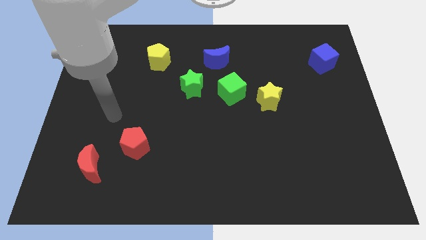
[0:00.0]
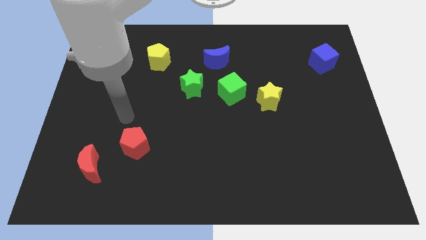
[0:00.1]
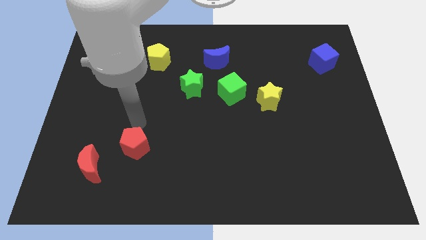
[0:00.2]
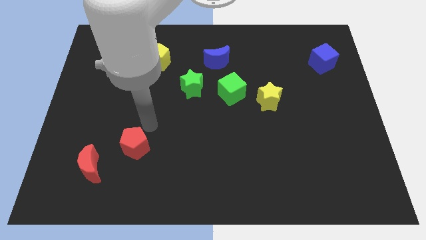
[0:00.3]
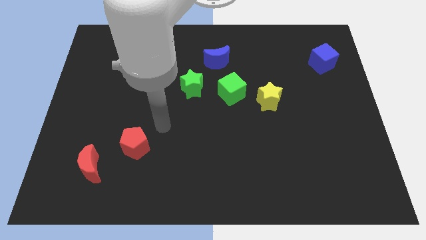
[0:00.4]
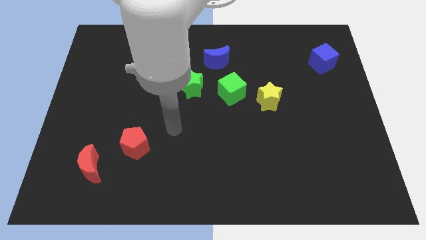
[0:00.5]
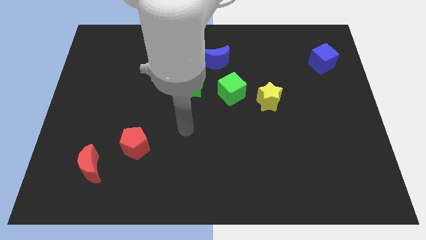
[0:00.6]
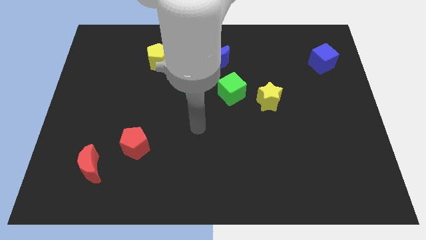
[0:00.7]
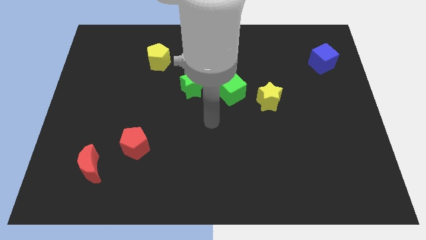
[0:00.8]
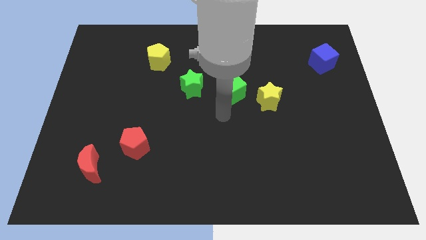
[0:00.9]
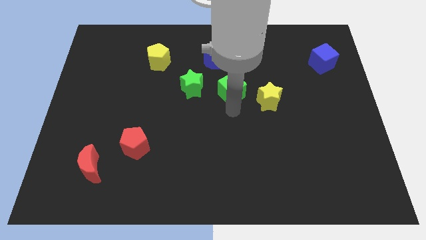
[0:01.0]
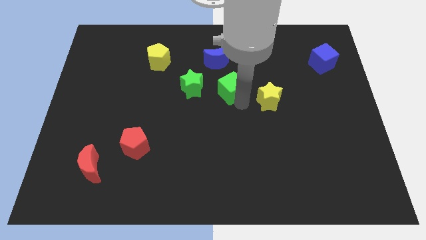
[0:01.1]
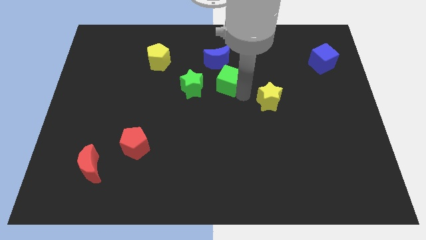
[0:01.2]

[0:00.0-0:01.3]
pull the yellow star apart from the green cube

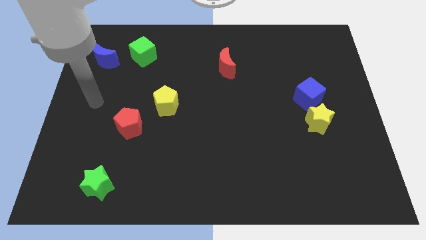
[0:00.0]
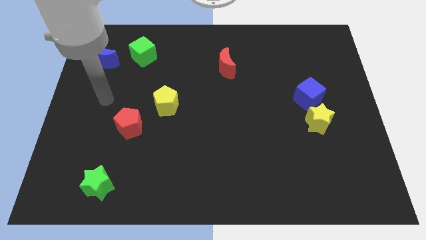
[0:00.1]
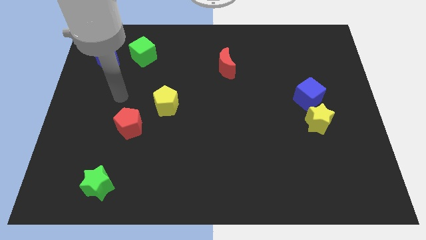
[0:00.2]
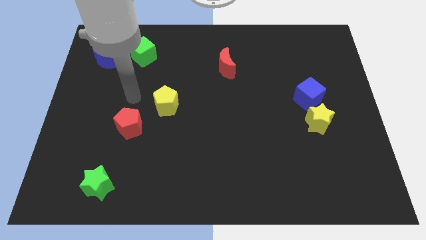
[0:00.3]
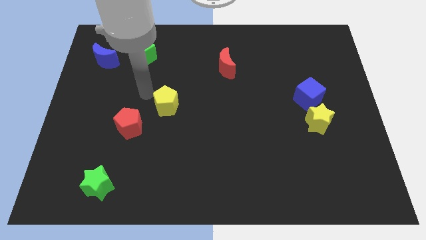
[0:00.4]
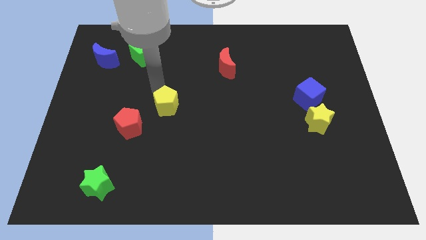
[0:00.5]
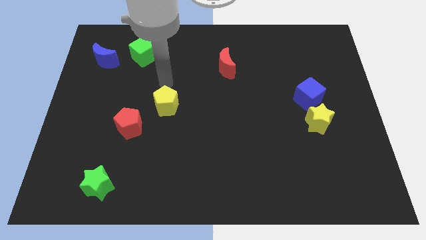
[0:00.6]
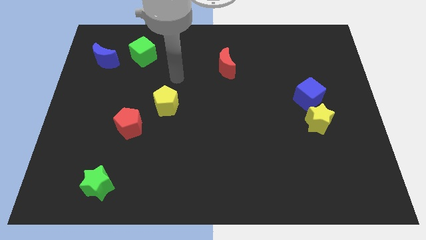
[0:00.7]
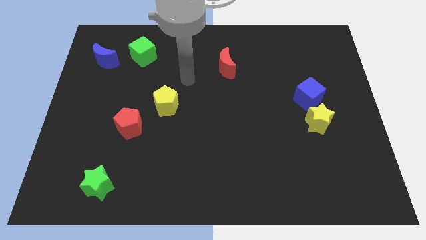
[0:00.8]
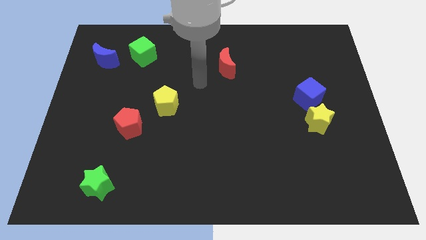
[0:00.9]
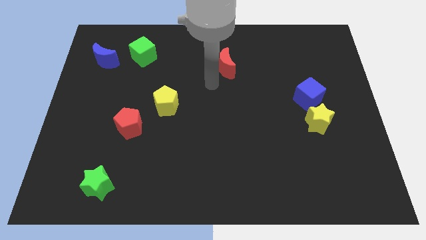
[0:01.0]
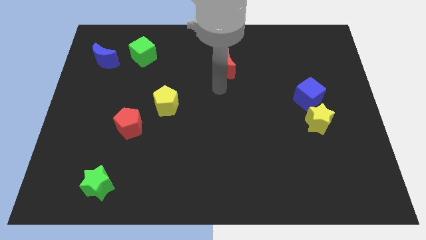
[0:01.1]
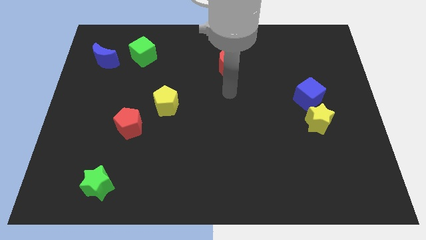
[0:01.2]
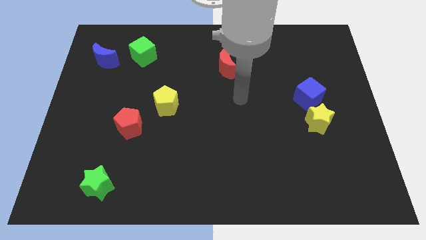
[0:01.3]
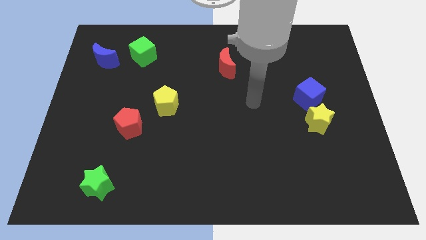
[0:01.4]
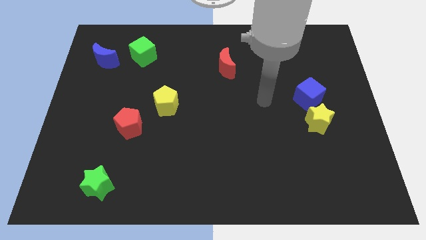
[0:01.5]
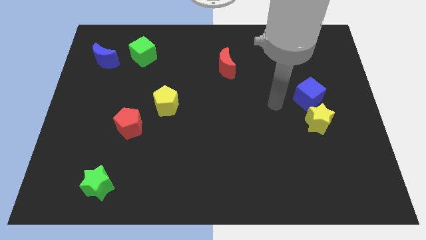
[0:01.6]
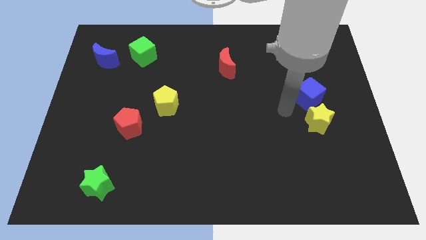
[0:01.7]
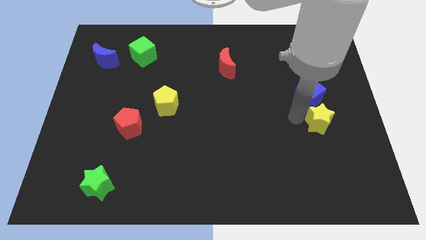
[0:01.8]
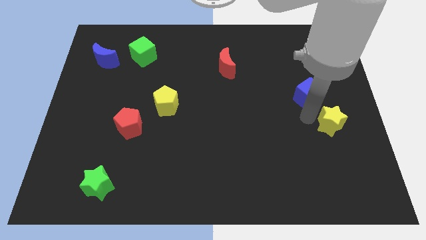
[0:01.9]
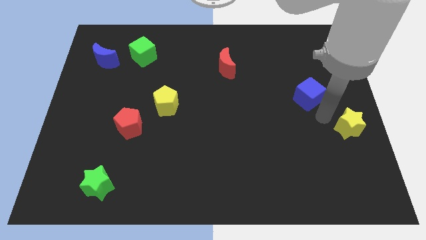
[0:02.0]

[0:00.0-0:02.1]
separate the blue cube from the yellow star

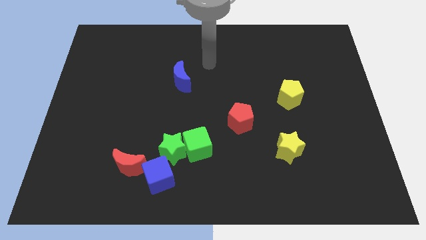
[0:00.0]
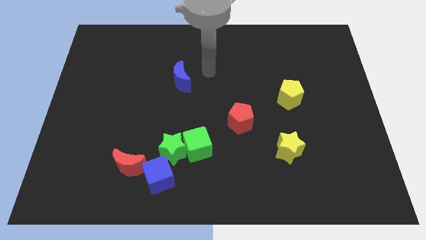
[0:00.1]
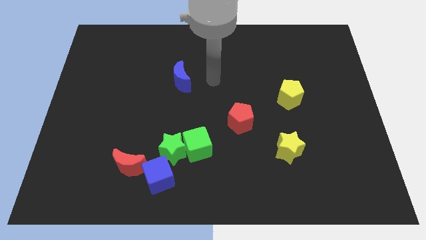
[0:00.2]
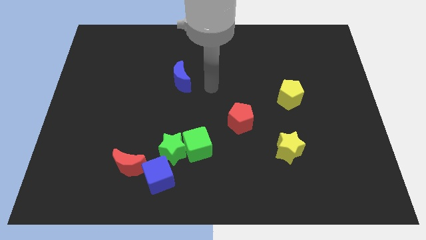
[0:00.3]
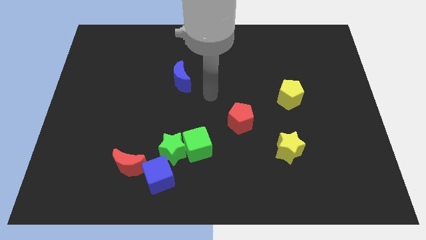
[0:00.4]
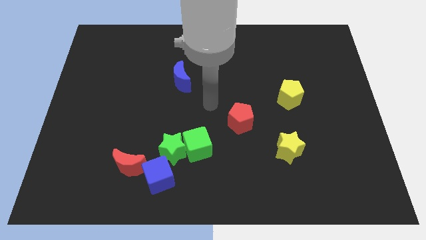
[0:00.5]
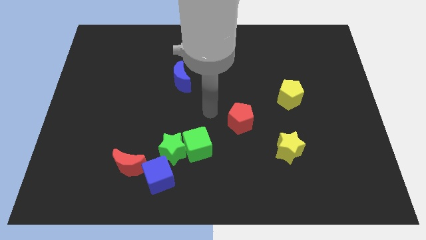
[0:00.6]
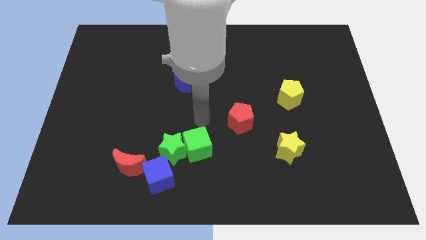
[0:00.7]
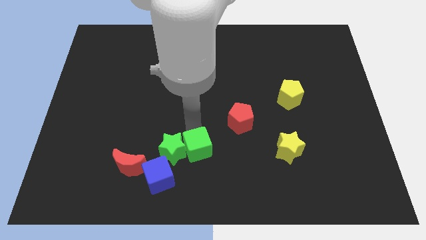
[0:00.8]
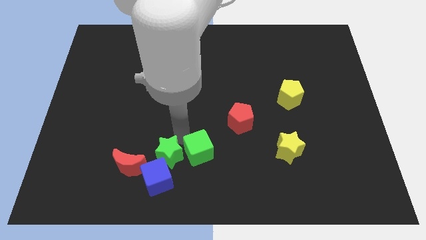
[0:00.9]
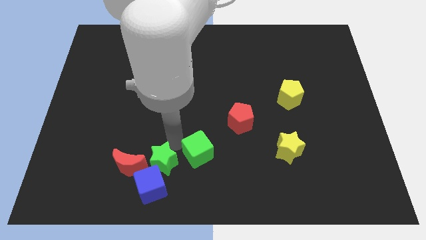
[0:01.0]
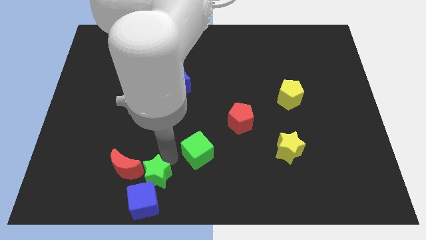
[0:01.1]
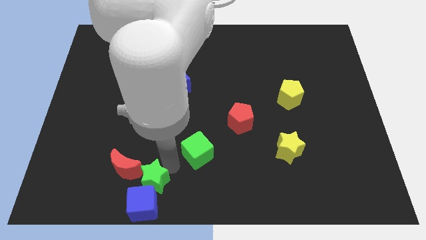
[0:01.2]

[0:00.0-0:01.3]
separate the green cube from the green star

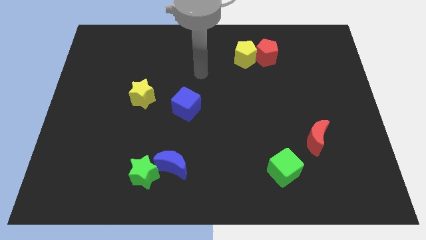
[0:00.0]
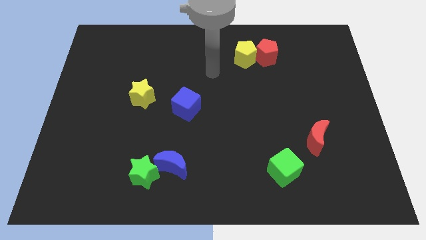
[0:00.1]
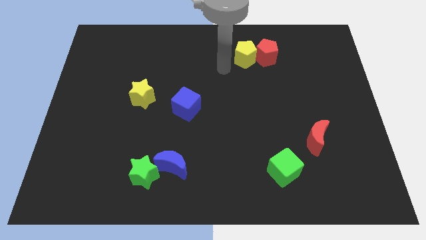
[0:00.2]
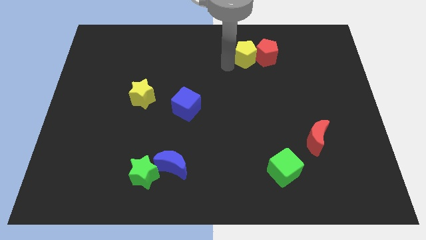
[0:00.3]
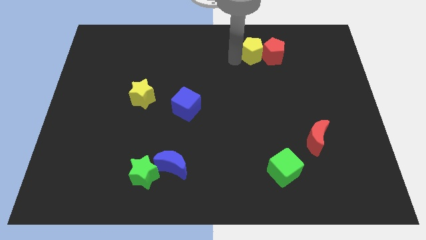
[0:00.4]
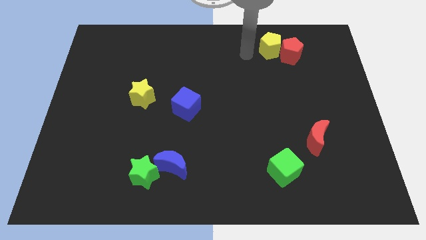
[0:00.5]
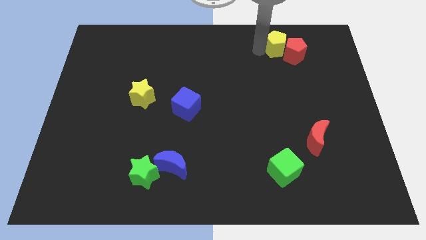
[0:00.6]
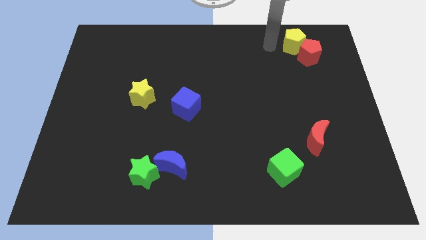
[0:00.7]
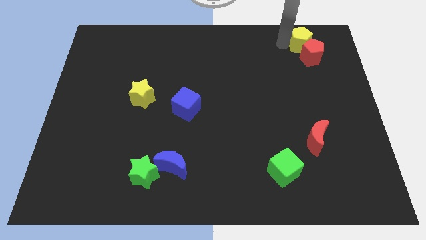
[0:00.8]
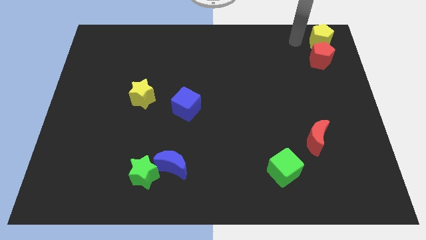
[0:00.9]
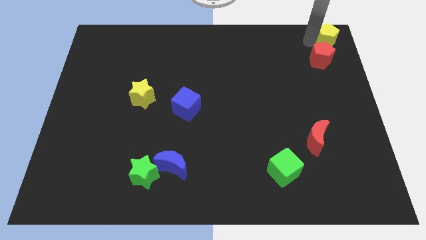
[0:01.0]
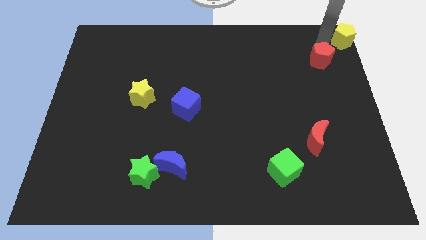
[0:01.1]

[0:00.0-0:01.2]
separate the red pentagon from the yellow pentagon

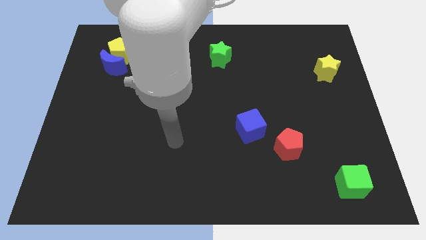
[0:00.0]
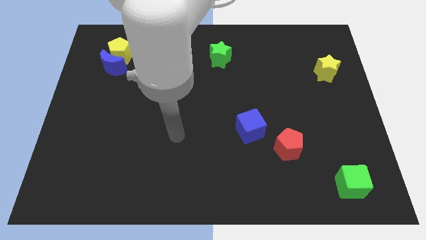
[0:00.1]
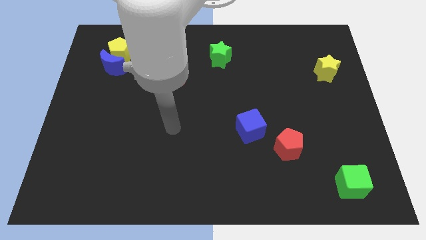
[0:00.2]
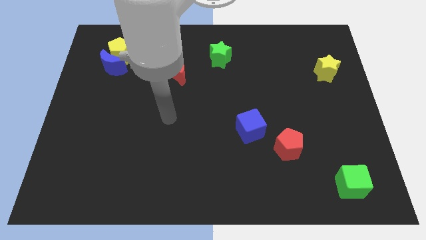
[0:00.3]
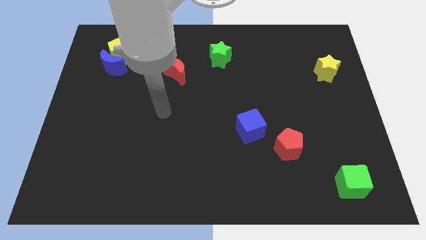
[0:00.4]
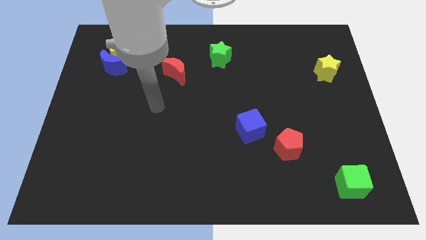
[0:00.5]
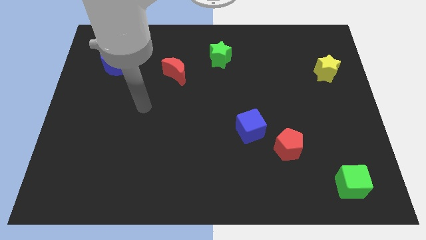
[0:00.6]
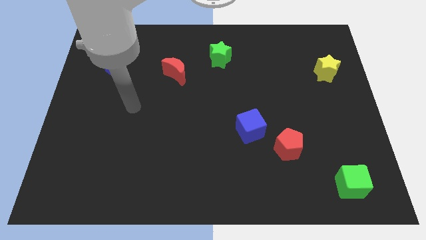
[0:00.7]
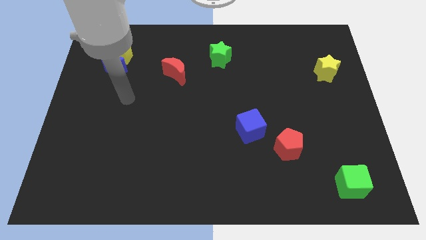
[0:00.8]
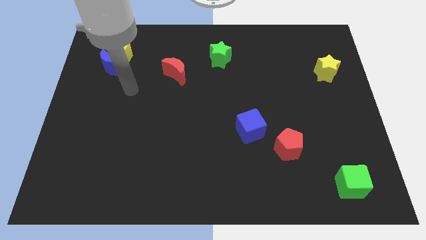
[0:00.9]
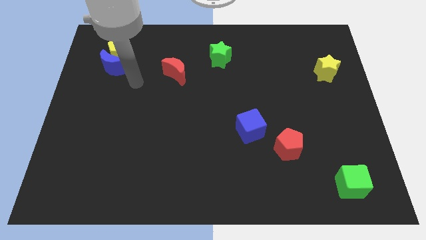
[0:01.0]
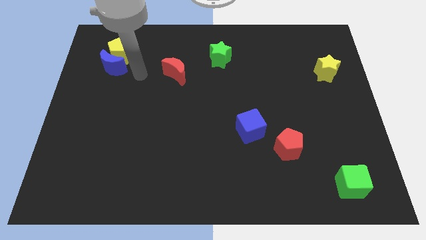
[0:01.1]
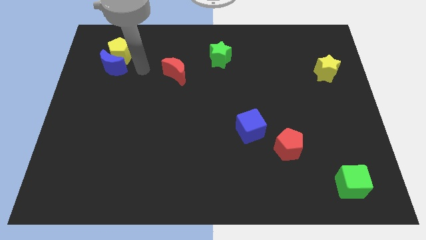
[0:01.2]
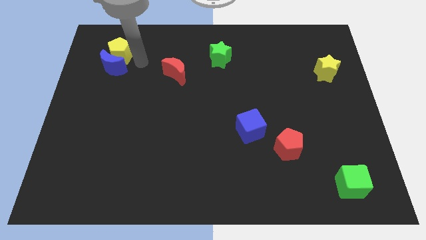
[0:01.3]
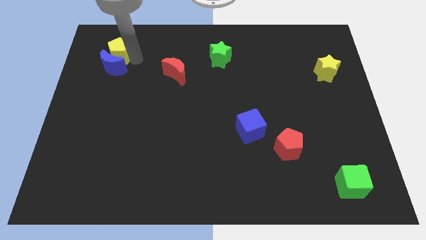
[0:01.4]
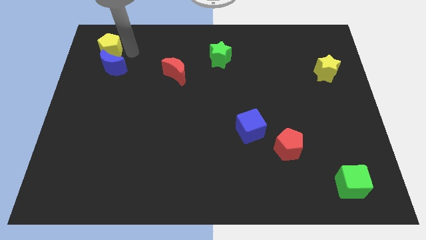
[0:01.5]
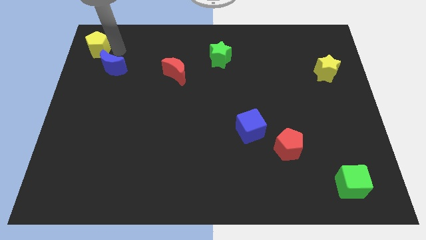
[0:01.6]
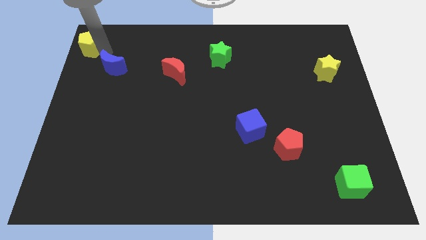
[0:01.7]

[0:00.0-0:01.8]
move the blue moon away from the yellow pentagon

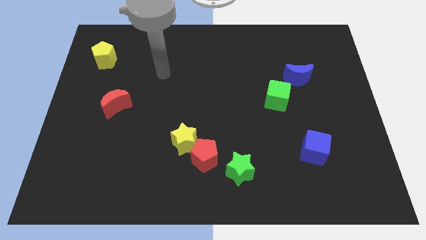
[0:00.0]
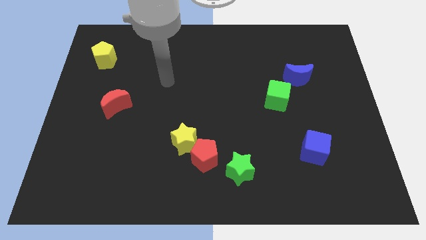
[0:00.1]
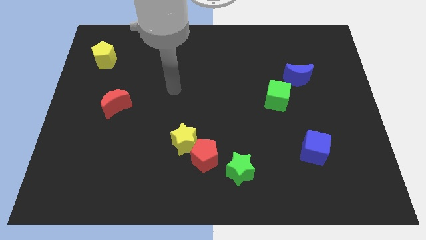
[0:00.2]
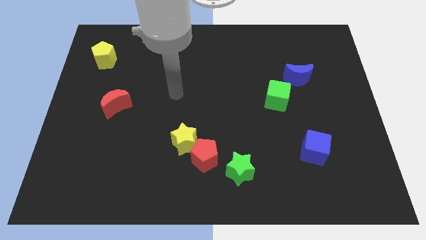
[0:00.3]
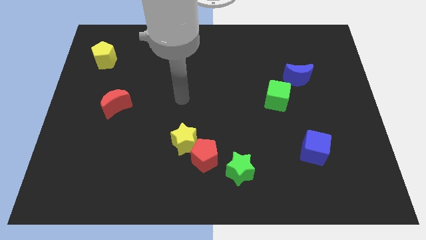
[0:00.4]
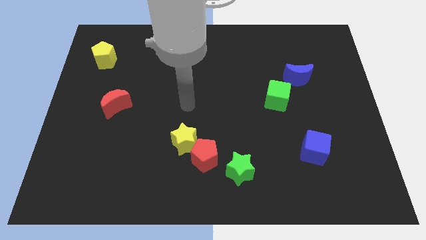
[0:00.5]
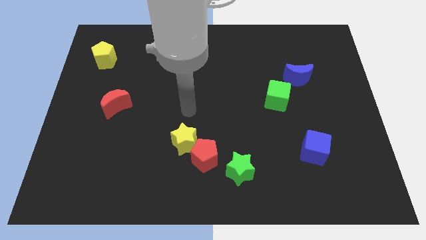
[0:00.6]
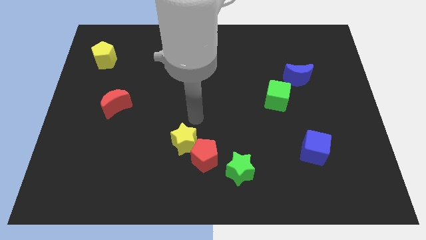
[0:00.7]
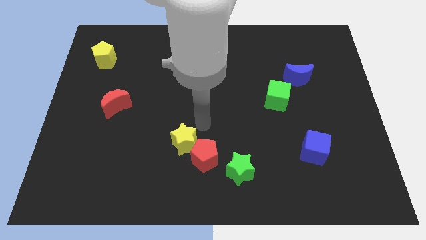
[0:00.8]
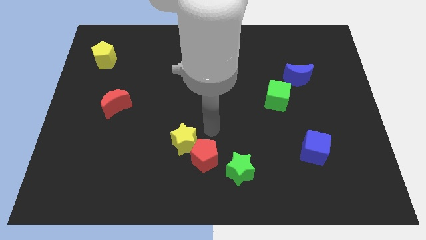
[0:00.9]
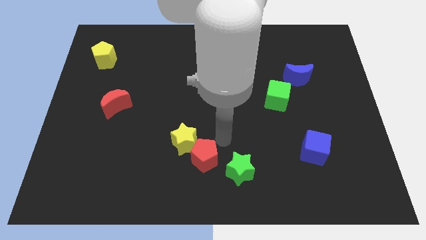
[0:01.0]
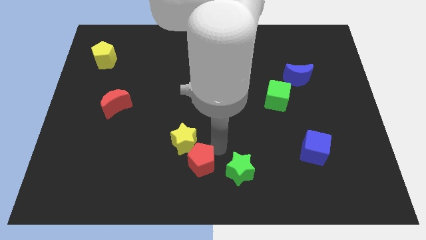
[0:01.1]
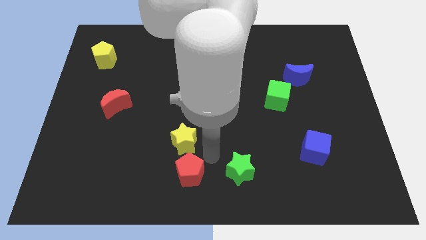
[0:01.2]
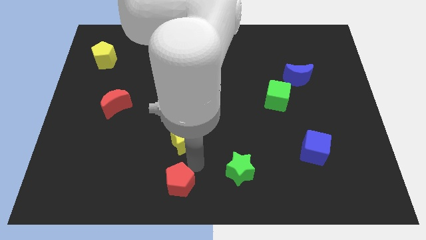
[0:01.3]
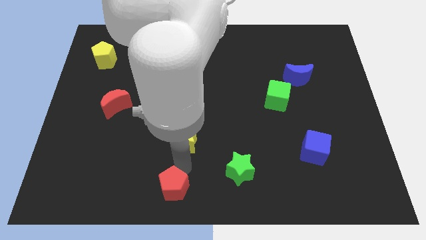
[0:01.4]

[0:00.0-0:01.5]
separate the yellow star from the red pentagon
